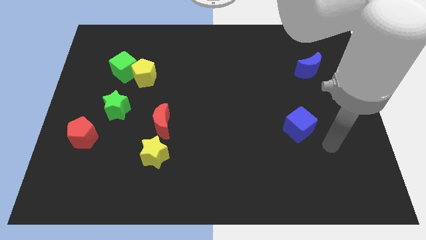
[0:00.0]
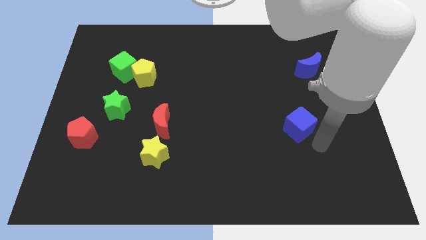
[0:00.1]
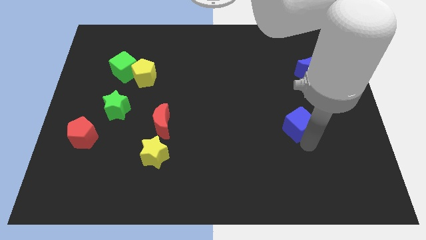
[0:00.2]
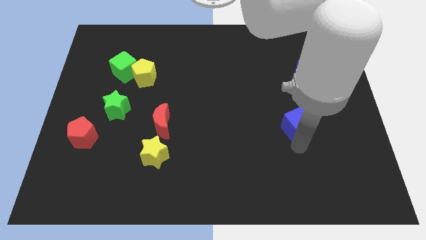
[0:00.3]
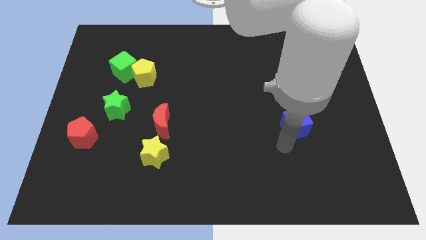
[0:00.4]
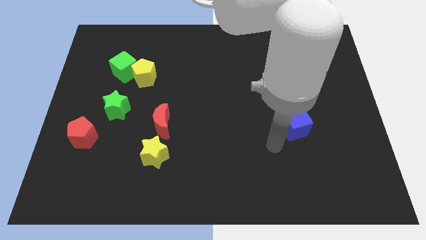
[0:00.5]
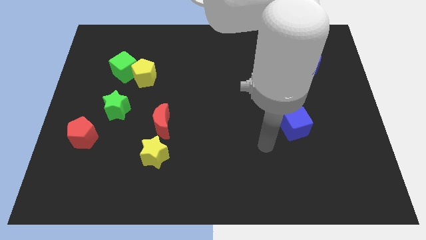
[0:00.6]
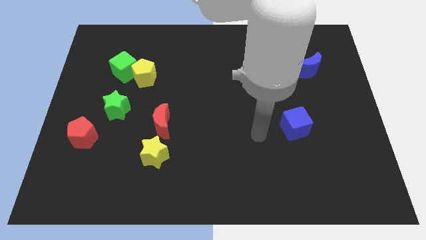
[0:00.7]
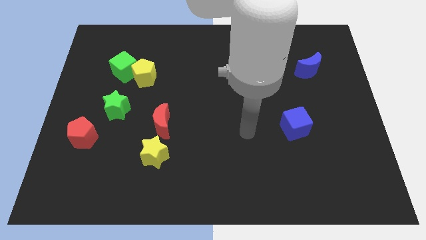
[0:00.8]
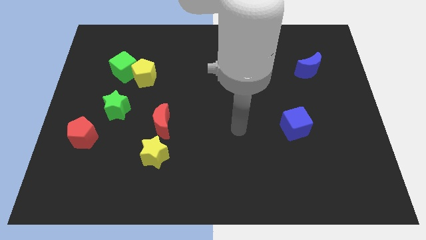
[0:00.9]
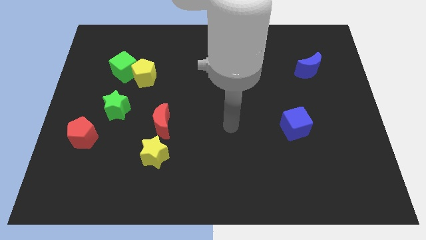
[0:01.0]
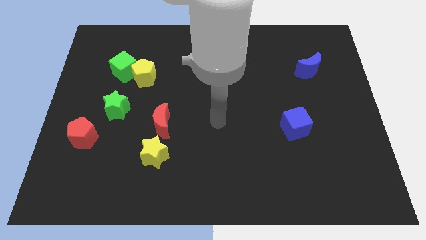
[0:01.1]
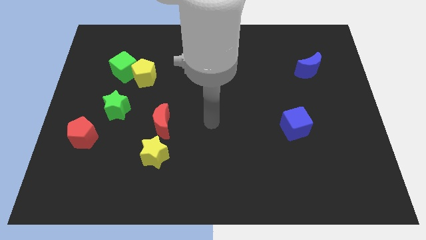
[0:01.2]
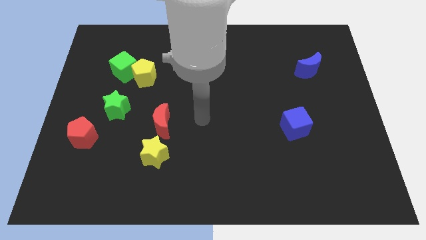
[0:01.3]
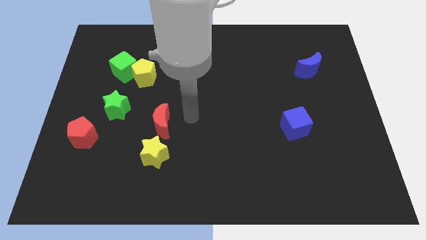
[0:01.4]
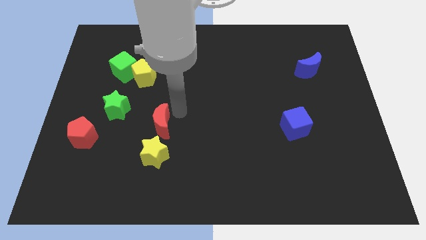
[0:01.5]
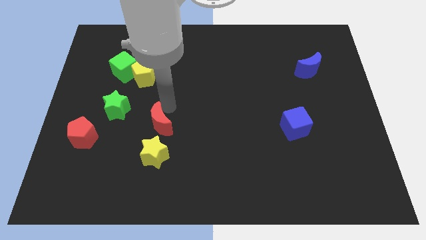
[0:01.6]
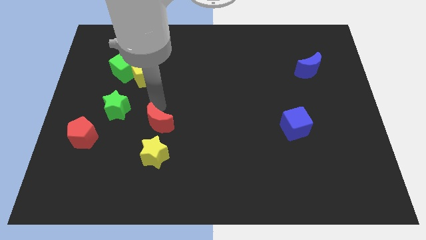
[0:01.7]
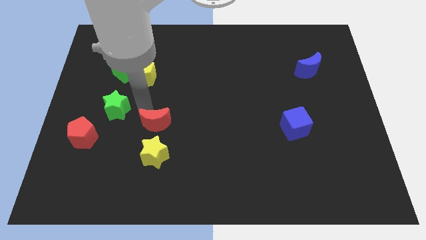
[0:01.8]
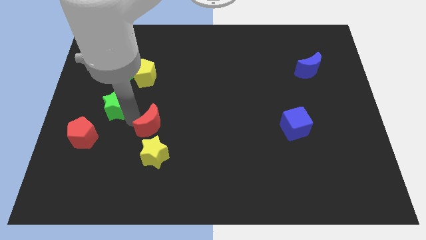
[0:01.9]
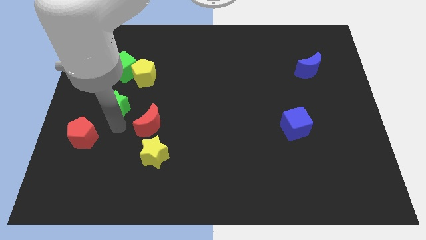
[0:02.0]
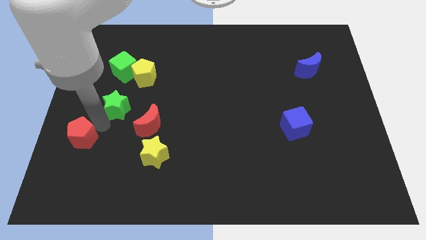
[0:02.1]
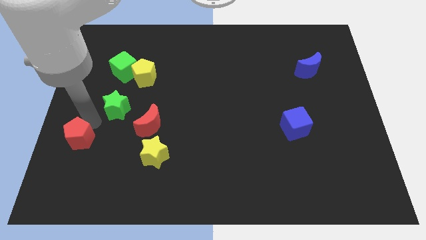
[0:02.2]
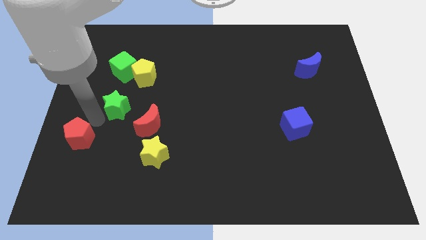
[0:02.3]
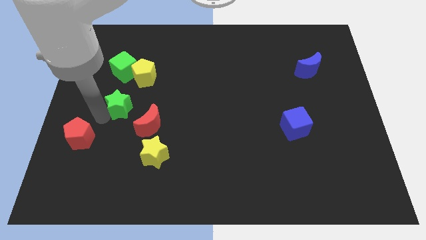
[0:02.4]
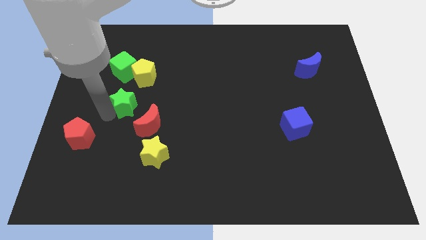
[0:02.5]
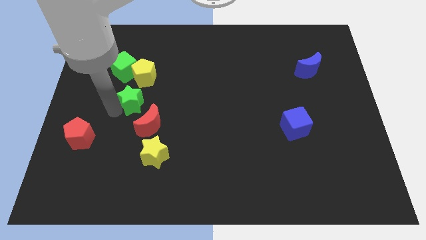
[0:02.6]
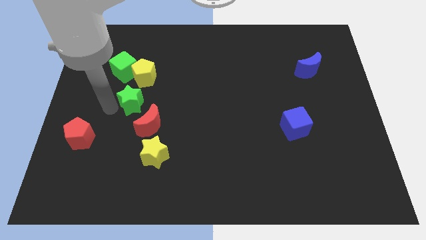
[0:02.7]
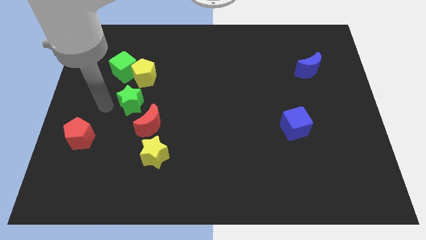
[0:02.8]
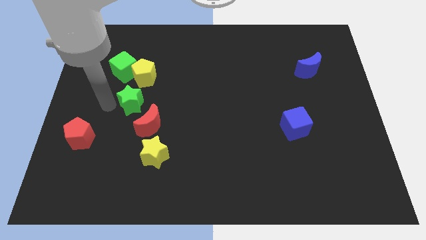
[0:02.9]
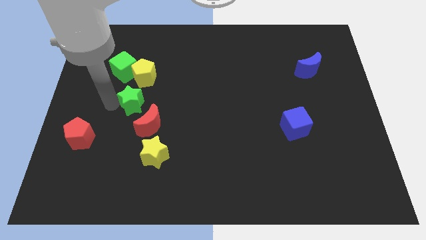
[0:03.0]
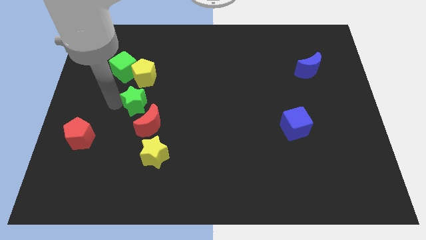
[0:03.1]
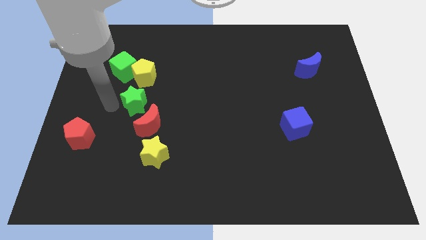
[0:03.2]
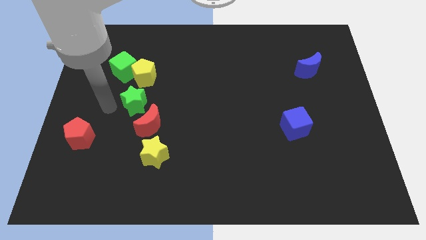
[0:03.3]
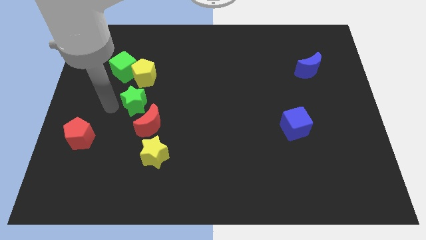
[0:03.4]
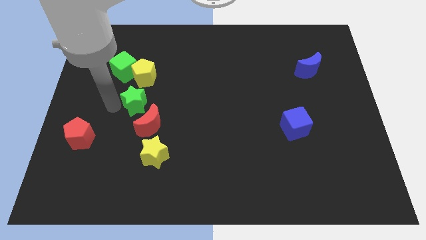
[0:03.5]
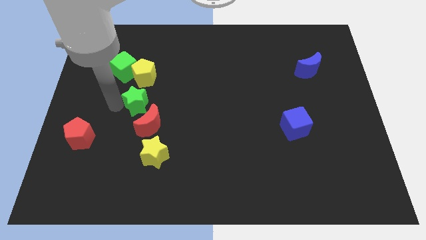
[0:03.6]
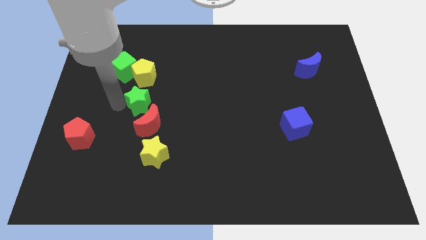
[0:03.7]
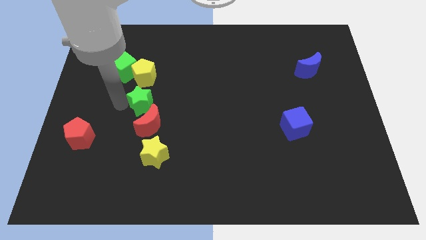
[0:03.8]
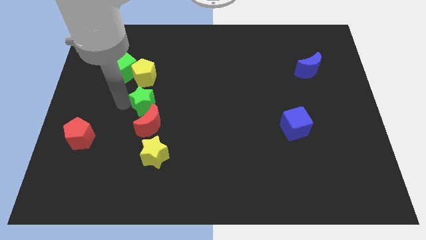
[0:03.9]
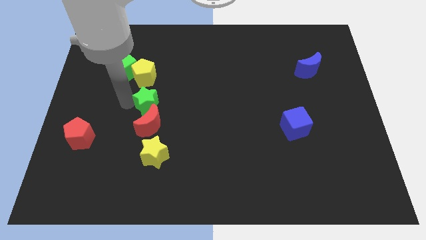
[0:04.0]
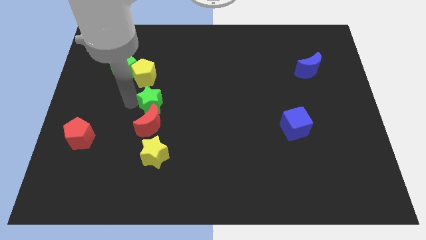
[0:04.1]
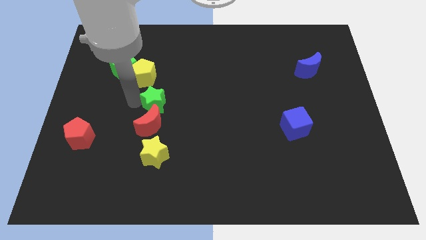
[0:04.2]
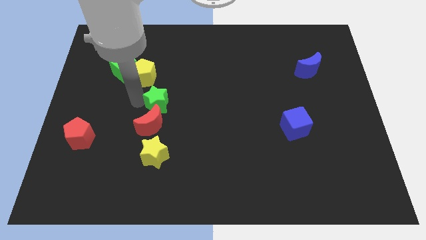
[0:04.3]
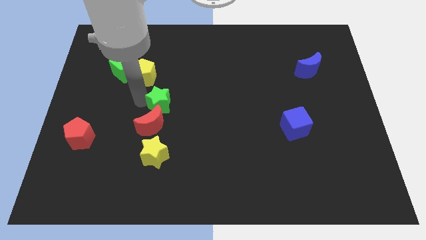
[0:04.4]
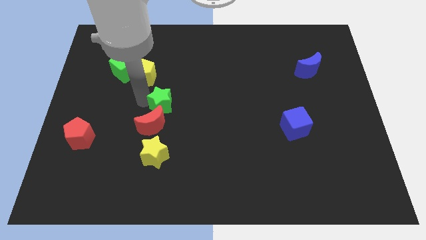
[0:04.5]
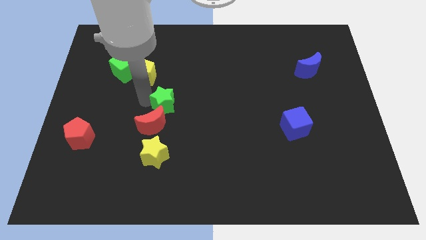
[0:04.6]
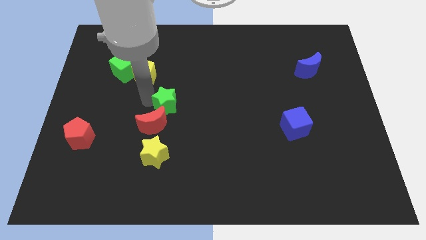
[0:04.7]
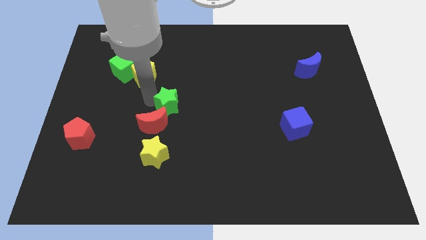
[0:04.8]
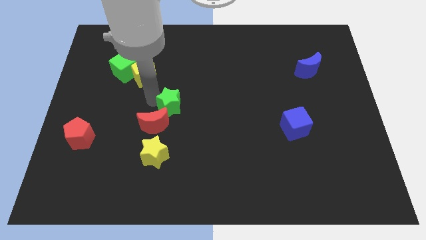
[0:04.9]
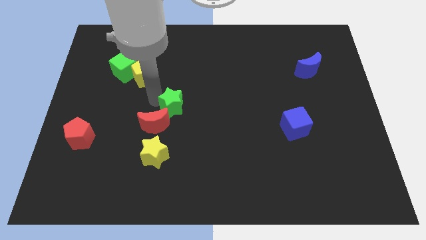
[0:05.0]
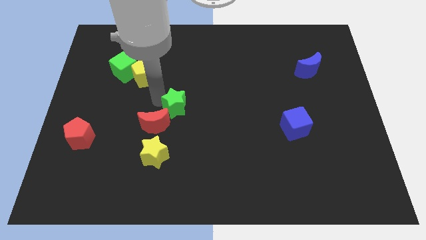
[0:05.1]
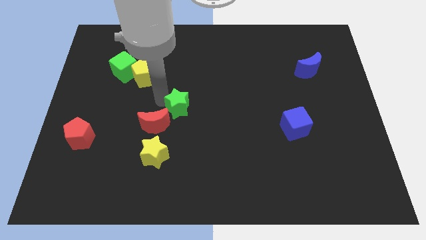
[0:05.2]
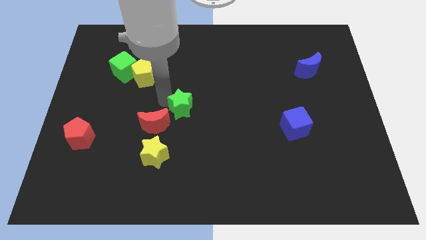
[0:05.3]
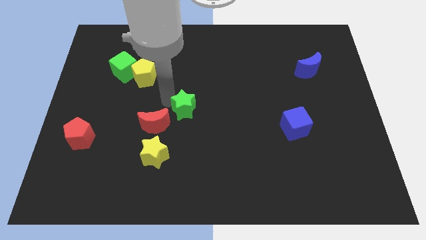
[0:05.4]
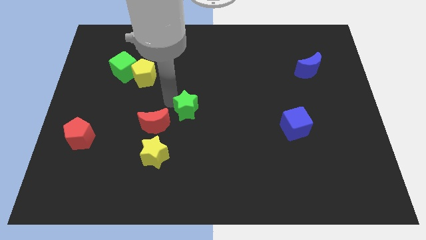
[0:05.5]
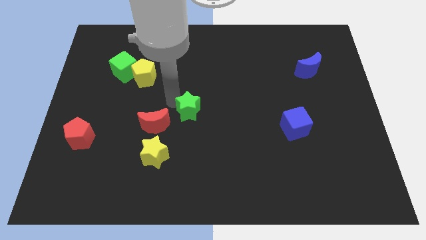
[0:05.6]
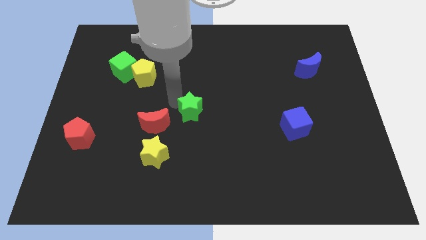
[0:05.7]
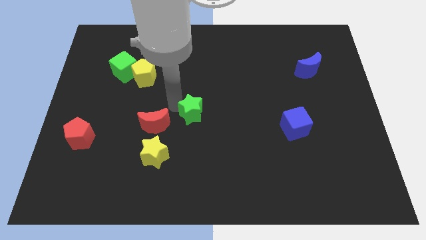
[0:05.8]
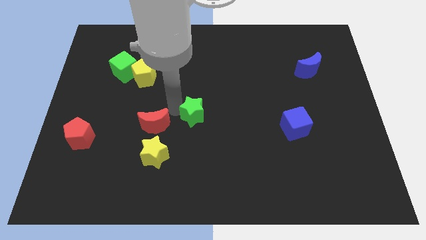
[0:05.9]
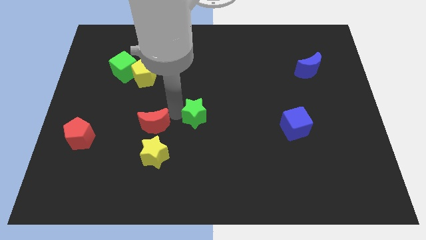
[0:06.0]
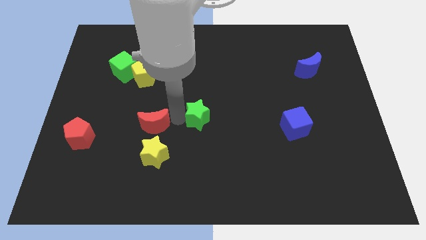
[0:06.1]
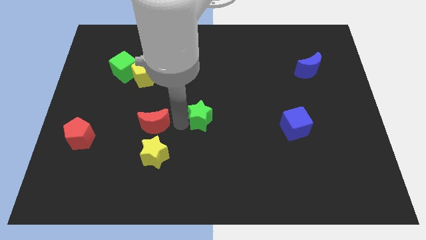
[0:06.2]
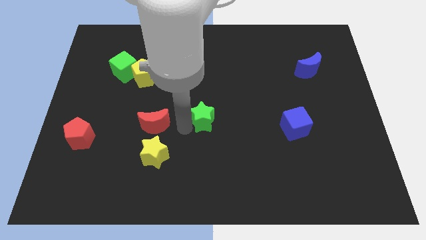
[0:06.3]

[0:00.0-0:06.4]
move the green star to the right

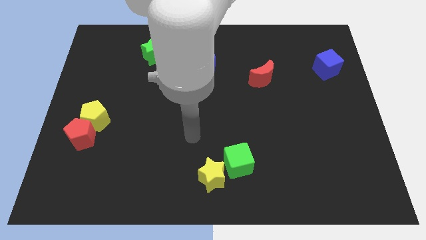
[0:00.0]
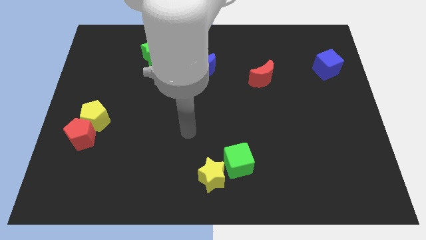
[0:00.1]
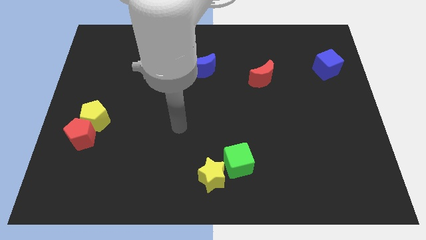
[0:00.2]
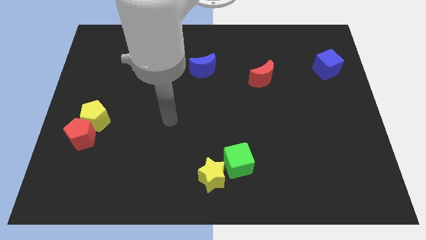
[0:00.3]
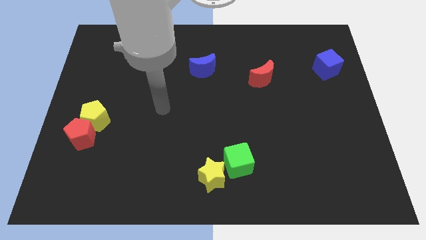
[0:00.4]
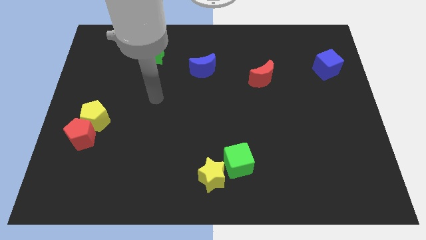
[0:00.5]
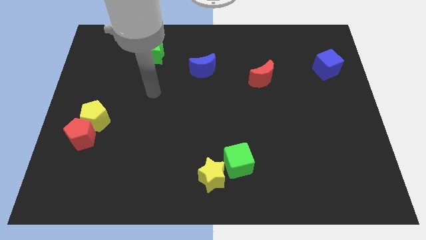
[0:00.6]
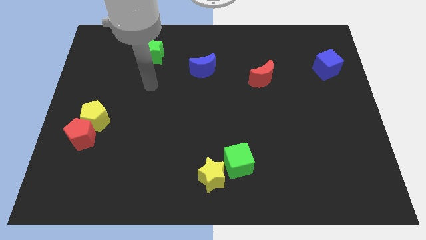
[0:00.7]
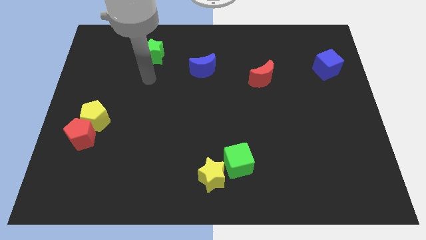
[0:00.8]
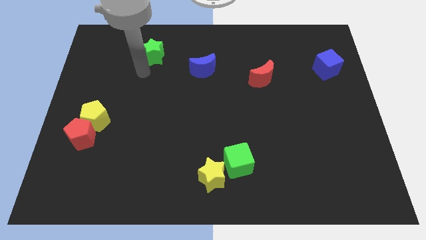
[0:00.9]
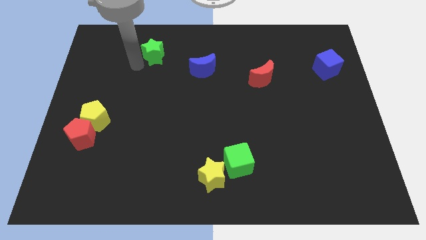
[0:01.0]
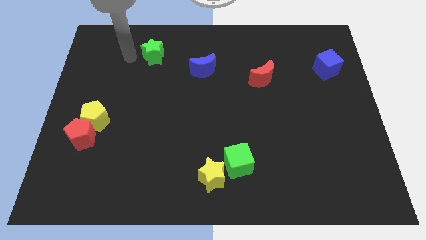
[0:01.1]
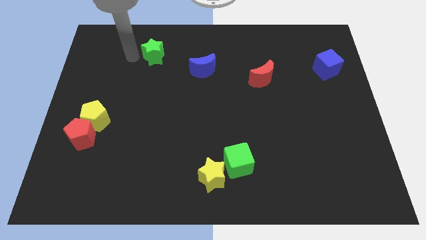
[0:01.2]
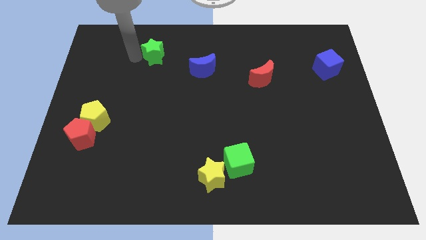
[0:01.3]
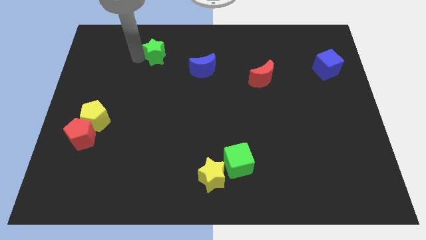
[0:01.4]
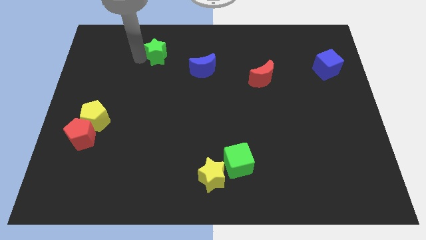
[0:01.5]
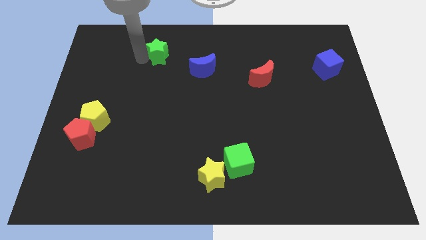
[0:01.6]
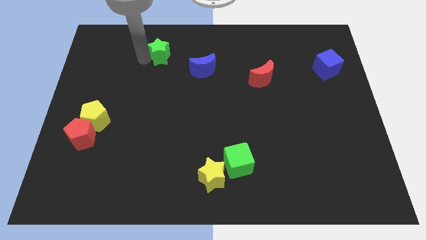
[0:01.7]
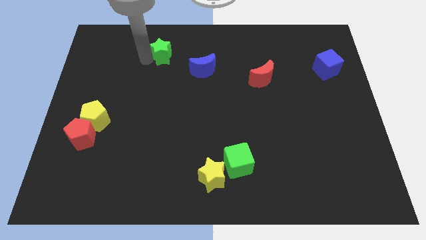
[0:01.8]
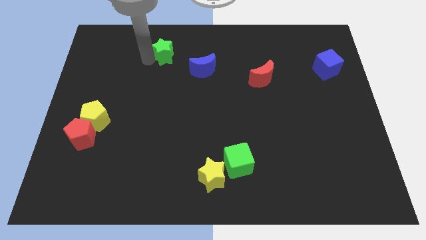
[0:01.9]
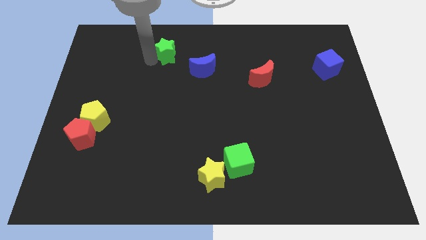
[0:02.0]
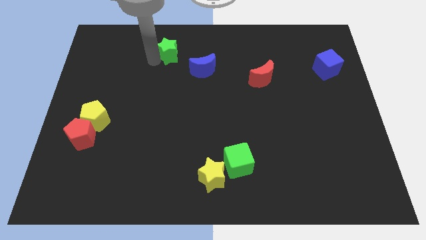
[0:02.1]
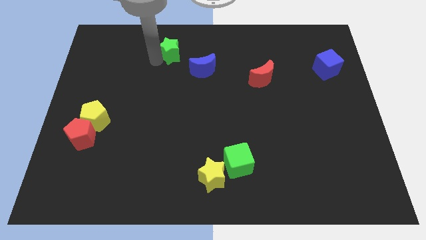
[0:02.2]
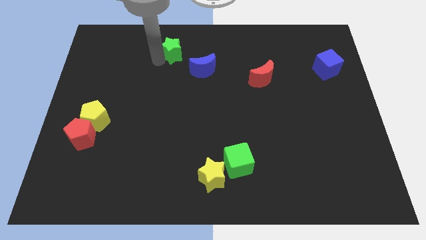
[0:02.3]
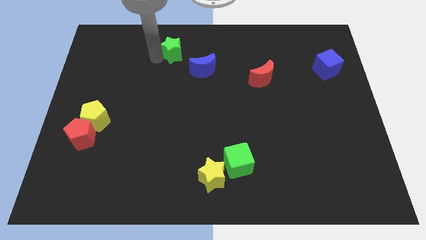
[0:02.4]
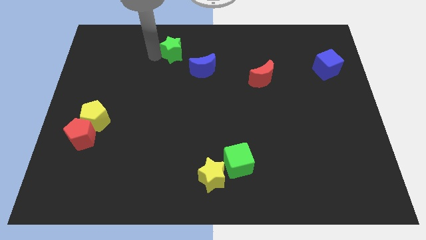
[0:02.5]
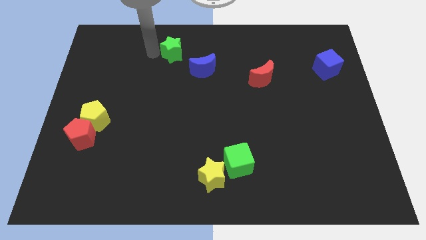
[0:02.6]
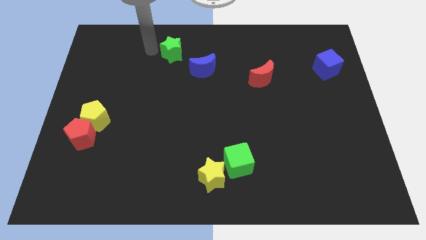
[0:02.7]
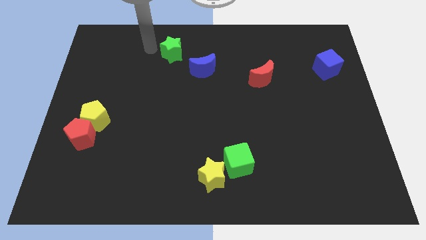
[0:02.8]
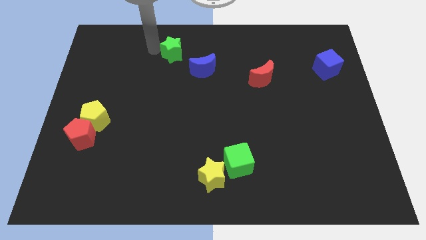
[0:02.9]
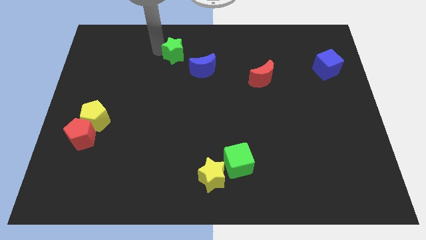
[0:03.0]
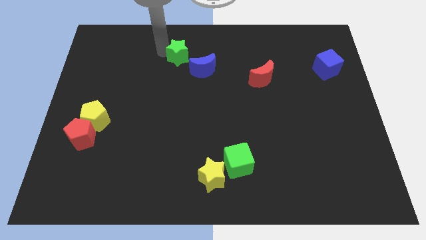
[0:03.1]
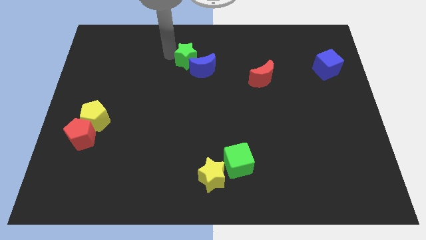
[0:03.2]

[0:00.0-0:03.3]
slide the green star a little to the right
